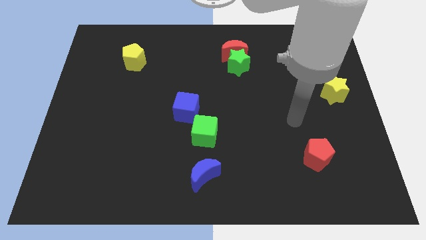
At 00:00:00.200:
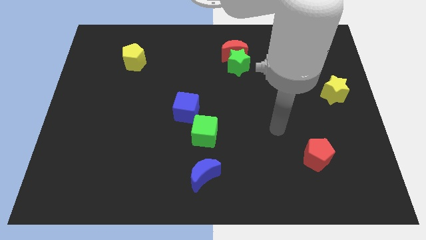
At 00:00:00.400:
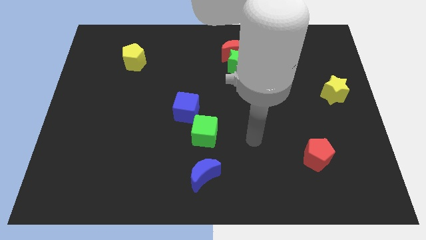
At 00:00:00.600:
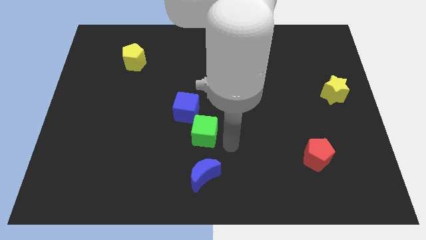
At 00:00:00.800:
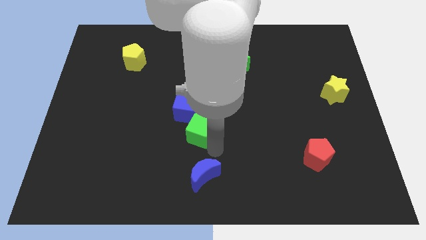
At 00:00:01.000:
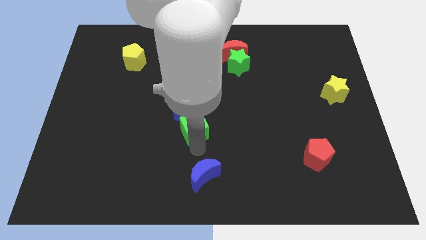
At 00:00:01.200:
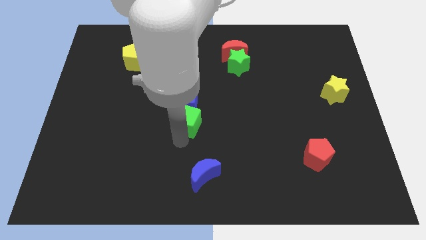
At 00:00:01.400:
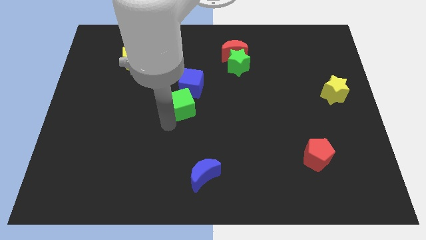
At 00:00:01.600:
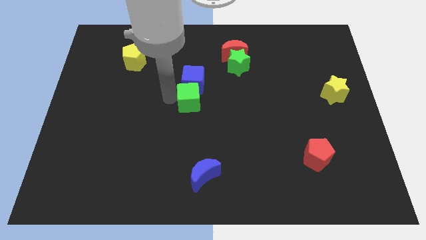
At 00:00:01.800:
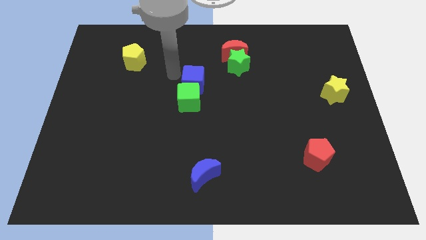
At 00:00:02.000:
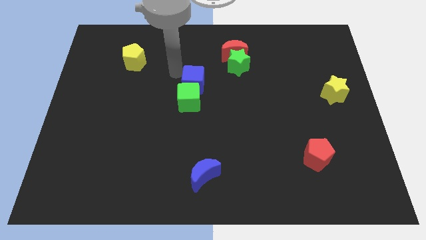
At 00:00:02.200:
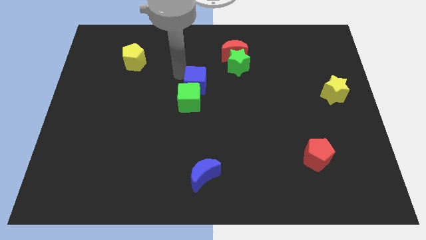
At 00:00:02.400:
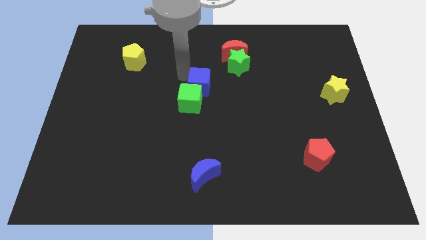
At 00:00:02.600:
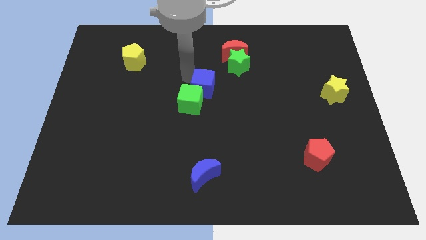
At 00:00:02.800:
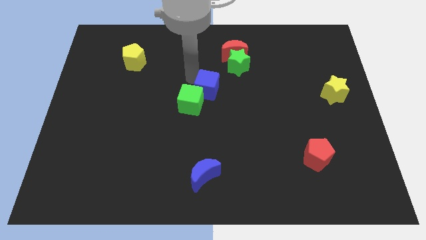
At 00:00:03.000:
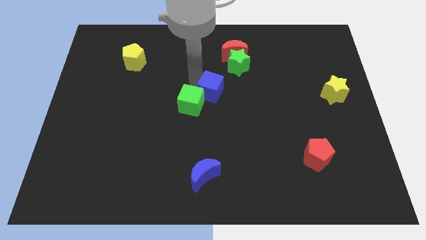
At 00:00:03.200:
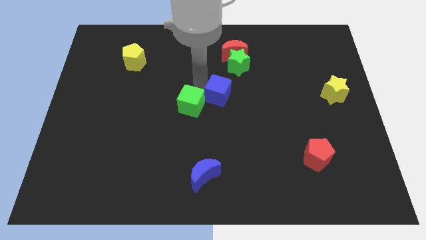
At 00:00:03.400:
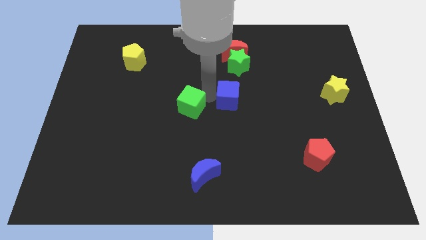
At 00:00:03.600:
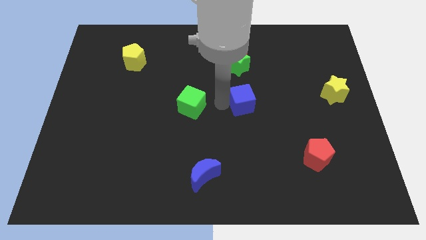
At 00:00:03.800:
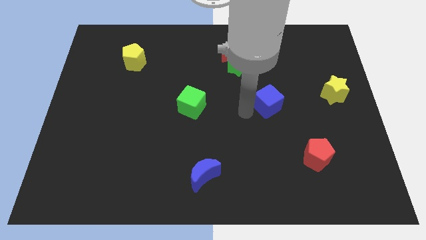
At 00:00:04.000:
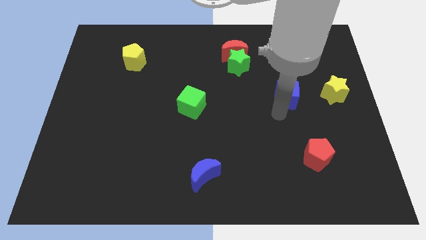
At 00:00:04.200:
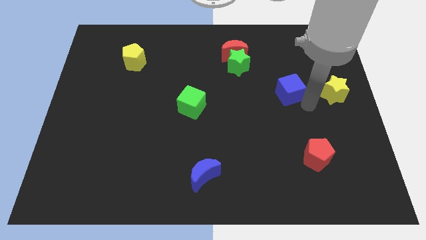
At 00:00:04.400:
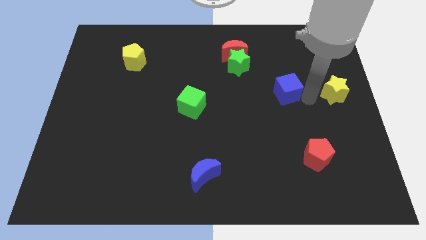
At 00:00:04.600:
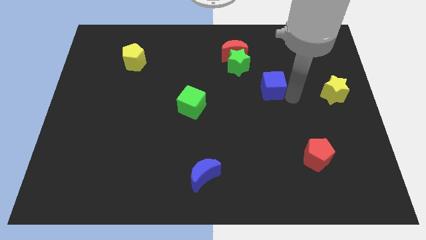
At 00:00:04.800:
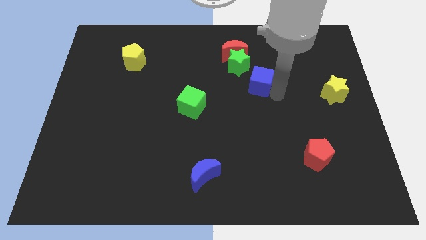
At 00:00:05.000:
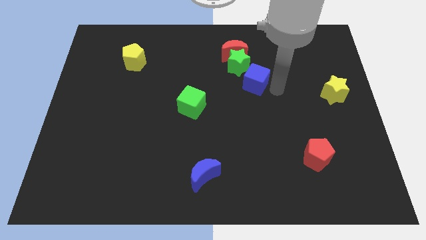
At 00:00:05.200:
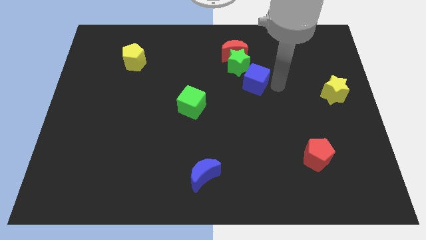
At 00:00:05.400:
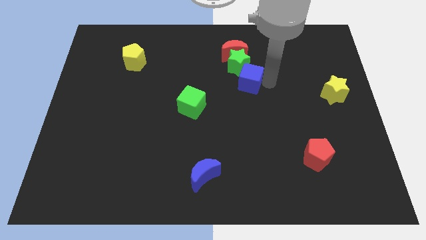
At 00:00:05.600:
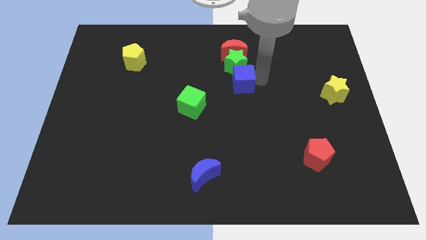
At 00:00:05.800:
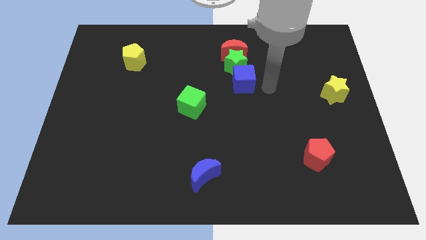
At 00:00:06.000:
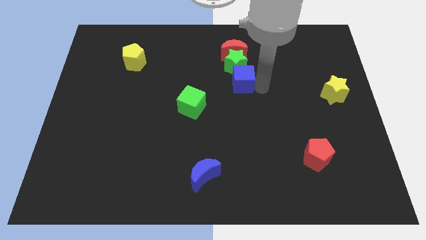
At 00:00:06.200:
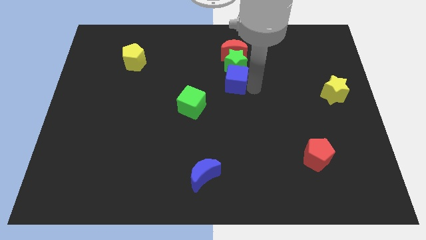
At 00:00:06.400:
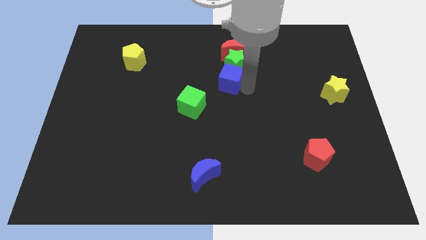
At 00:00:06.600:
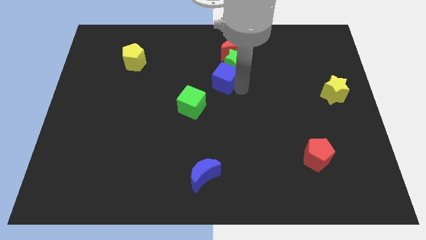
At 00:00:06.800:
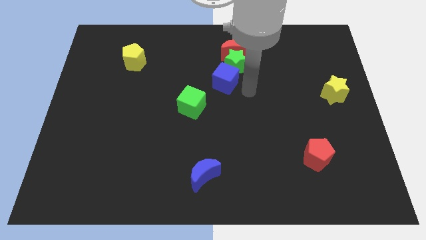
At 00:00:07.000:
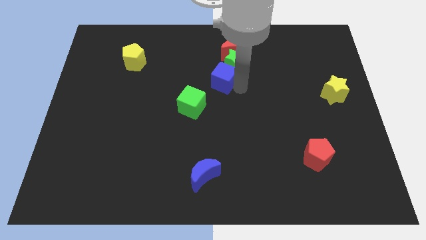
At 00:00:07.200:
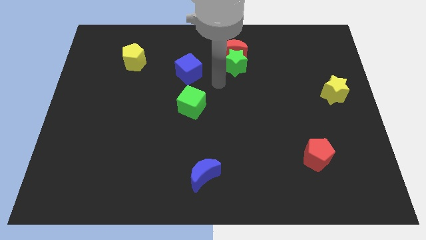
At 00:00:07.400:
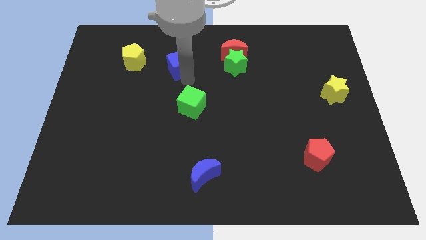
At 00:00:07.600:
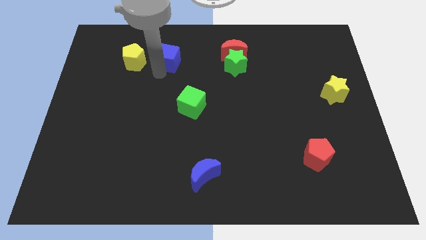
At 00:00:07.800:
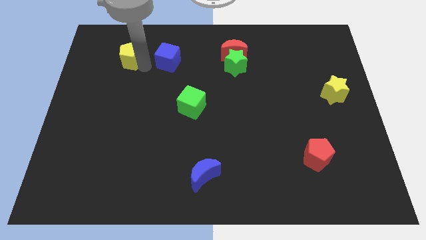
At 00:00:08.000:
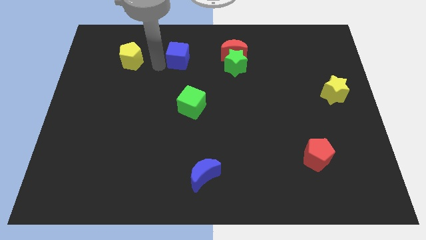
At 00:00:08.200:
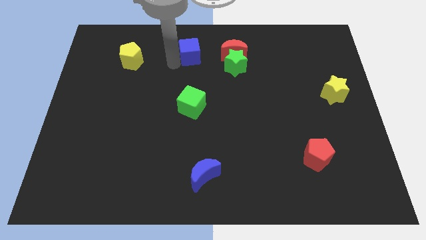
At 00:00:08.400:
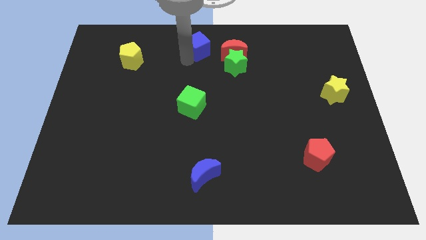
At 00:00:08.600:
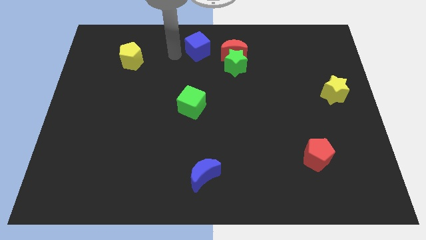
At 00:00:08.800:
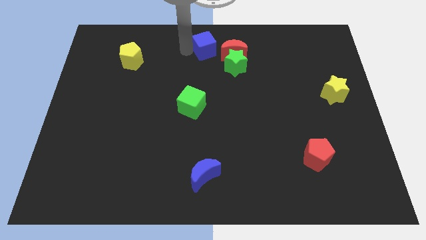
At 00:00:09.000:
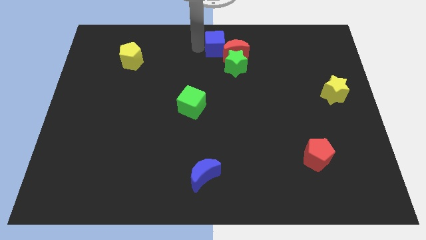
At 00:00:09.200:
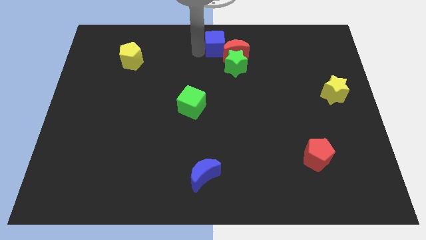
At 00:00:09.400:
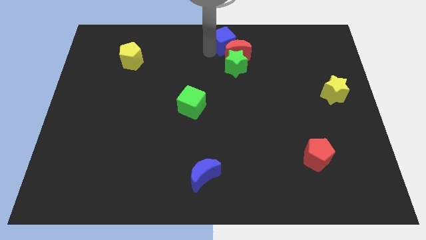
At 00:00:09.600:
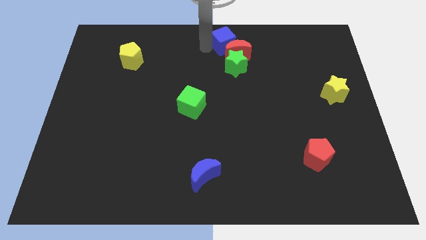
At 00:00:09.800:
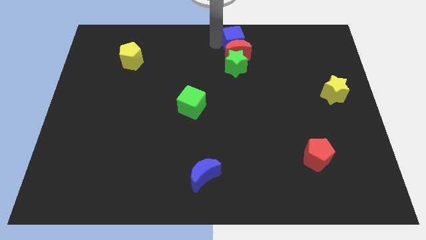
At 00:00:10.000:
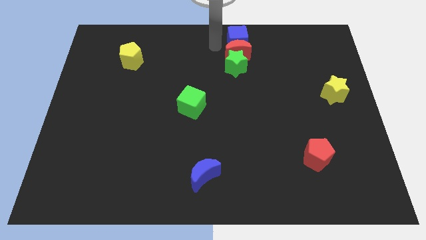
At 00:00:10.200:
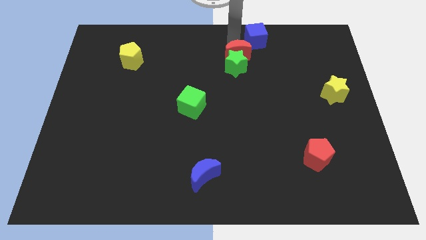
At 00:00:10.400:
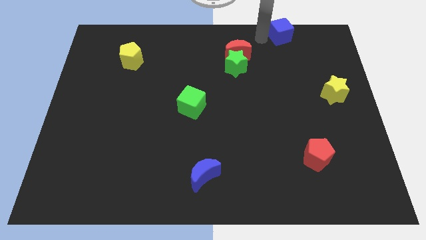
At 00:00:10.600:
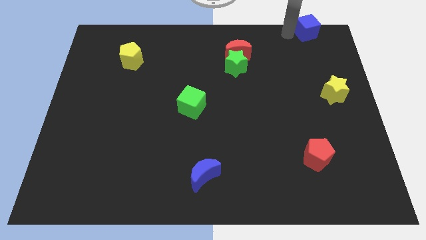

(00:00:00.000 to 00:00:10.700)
put the blue cube to the top right of the board
